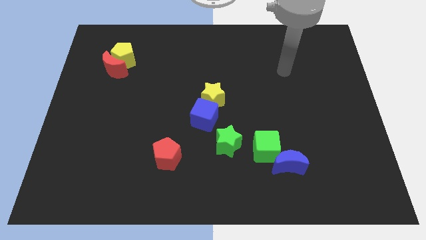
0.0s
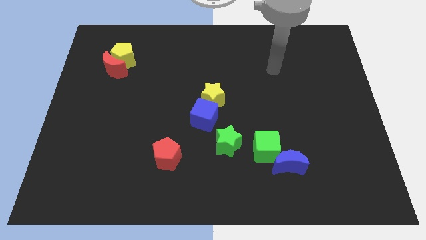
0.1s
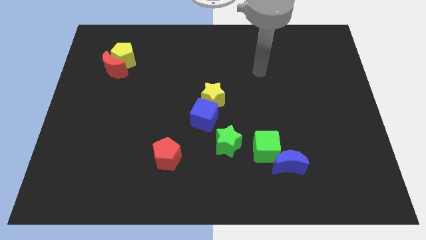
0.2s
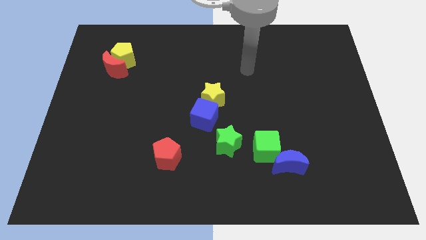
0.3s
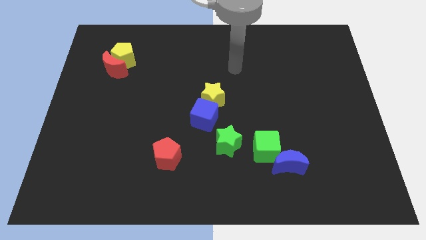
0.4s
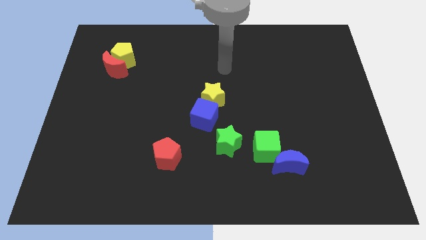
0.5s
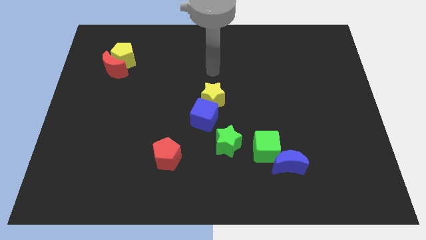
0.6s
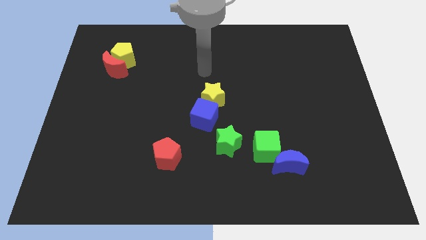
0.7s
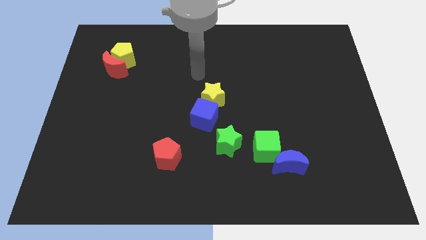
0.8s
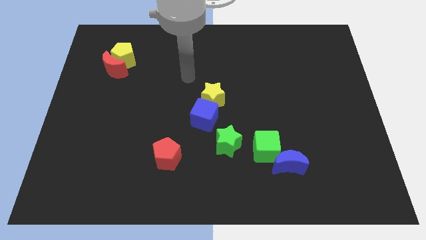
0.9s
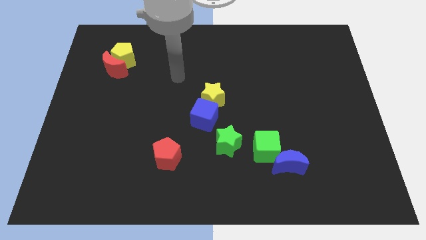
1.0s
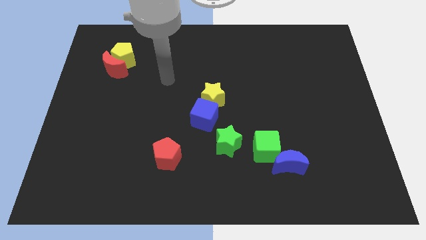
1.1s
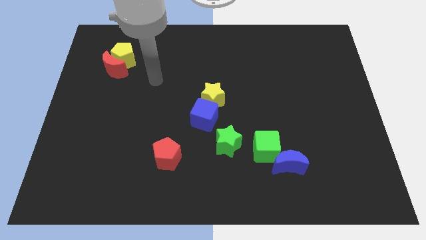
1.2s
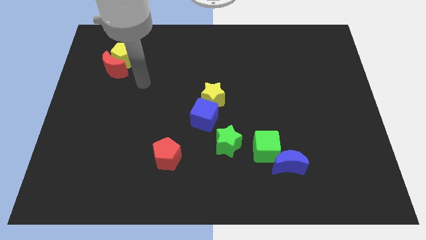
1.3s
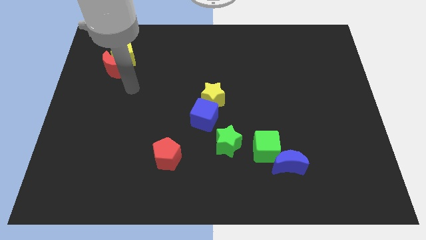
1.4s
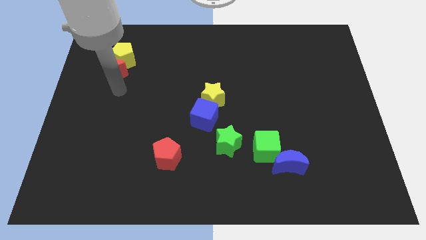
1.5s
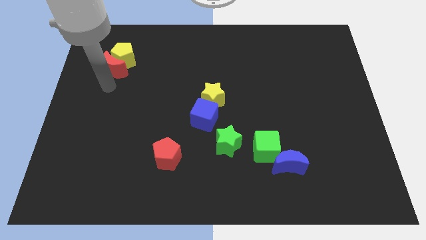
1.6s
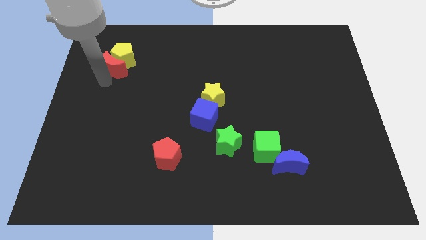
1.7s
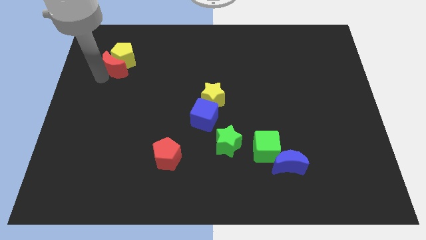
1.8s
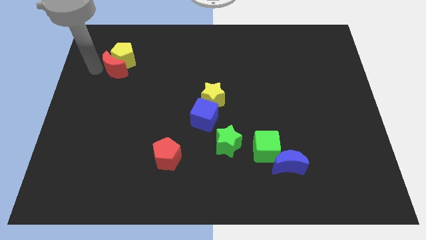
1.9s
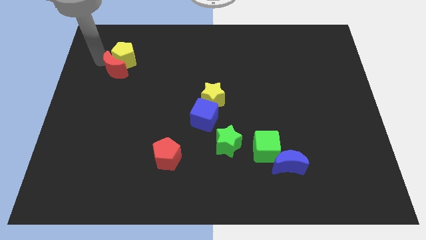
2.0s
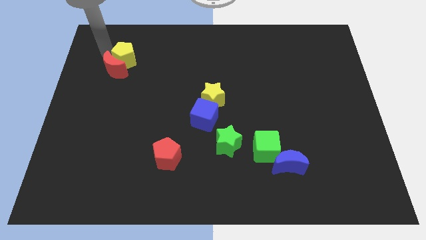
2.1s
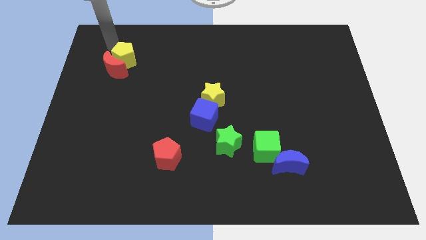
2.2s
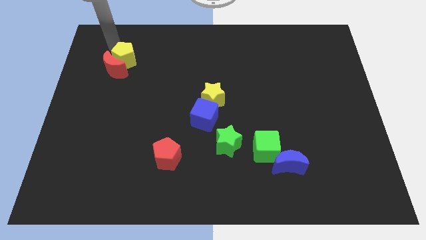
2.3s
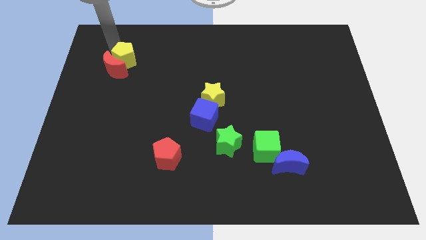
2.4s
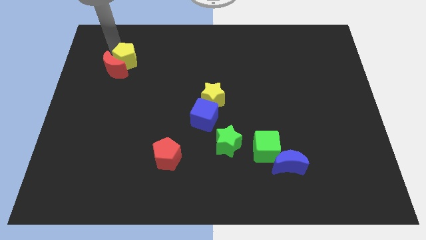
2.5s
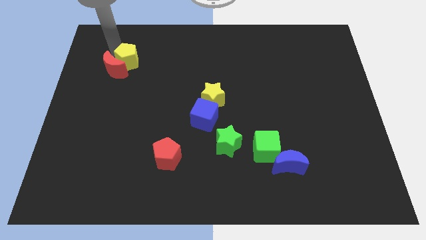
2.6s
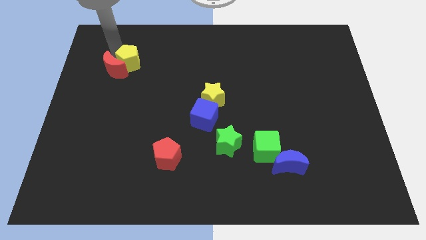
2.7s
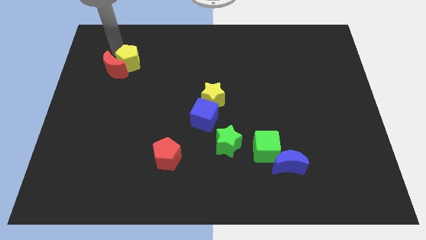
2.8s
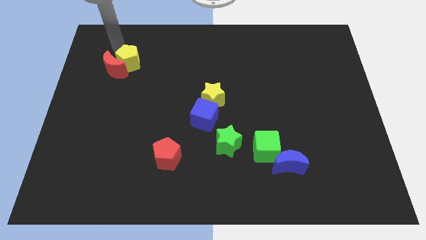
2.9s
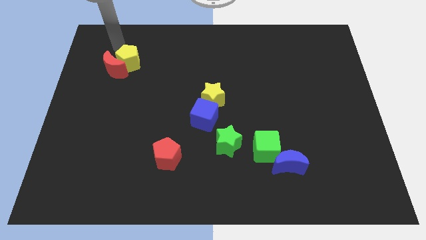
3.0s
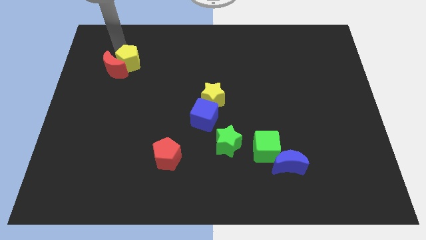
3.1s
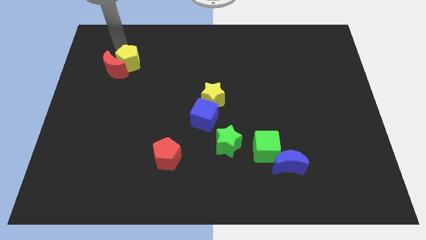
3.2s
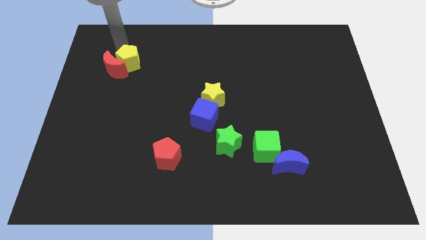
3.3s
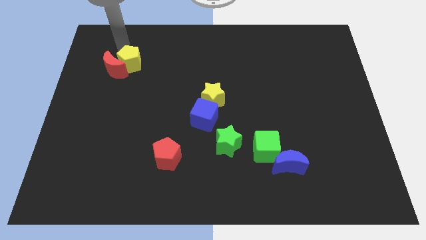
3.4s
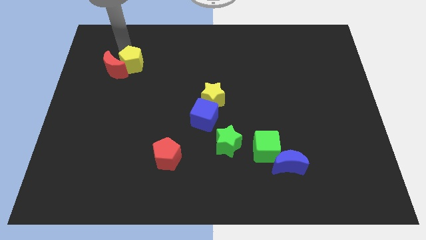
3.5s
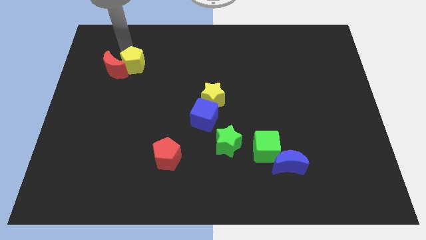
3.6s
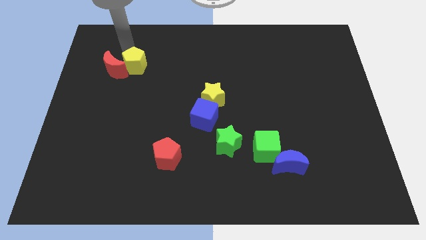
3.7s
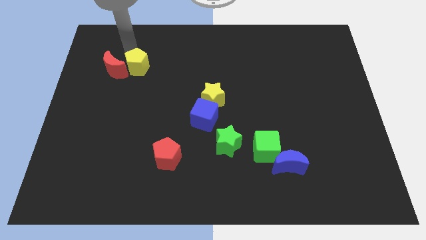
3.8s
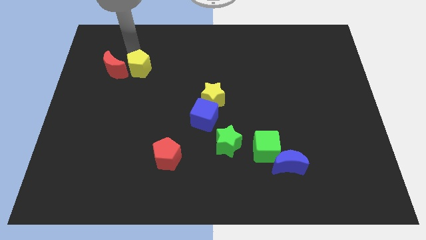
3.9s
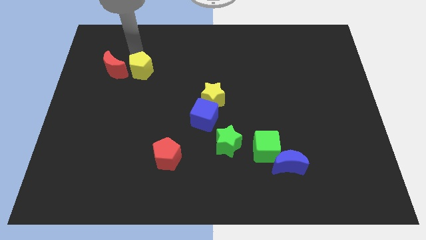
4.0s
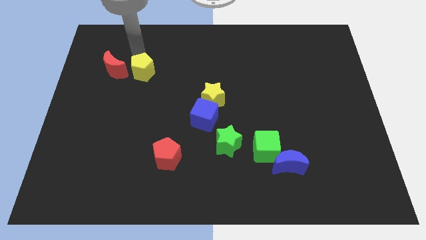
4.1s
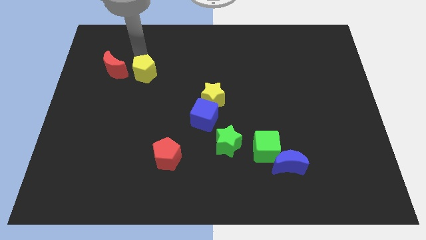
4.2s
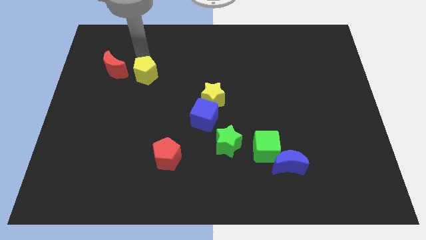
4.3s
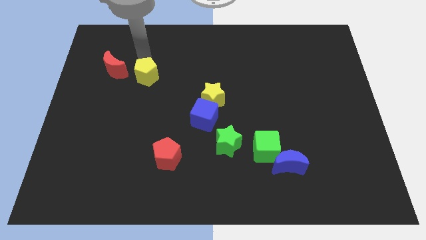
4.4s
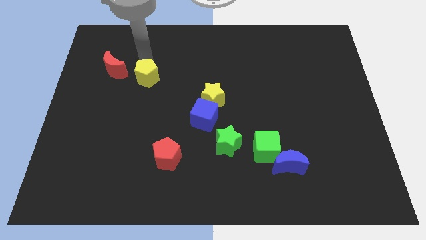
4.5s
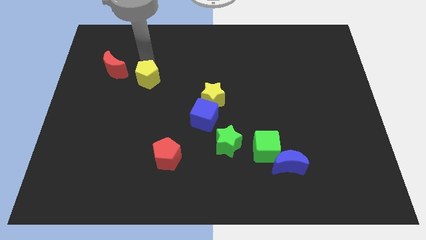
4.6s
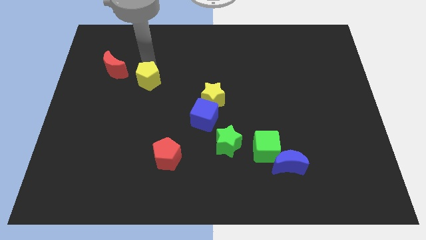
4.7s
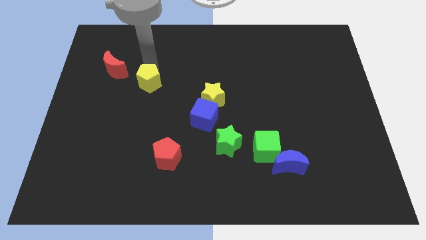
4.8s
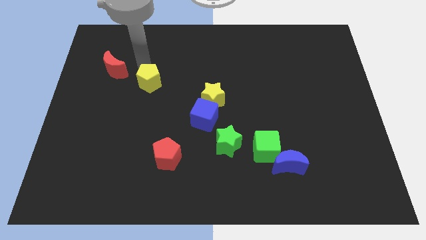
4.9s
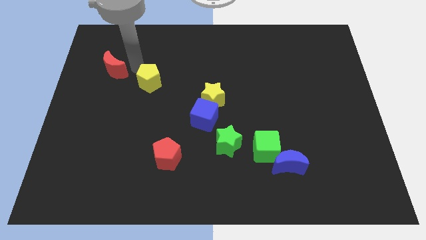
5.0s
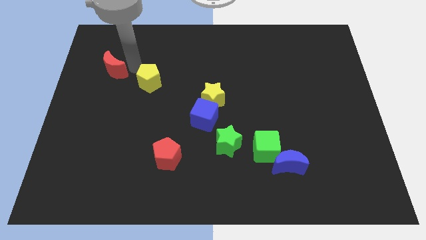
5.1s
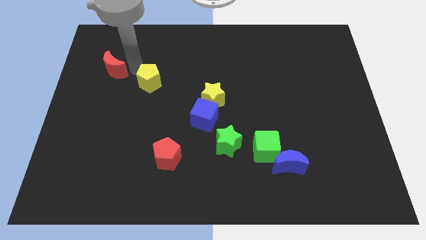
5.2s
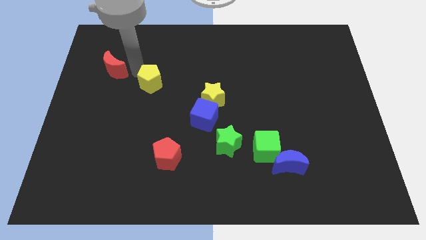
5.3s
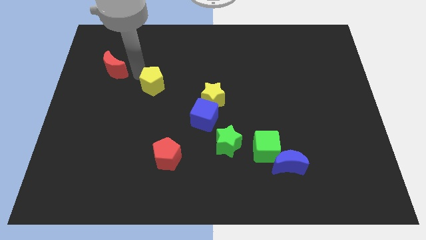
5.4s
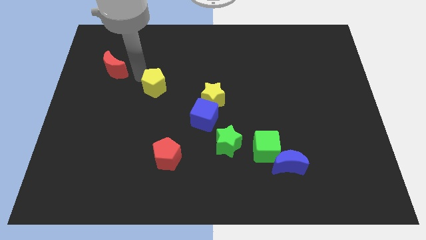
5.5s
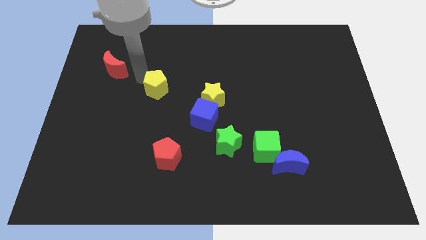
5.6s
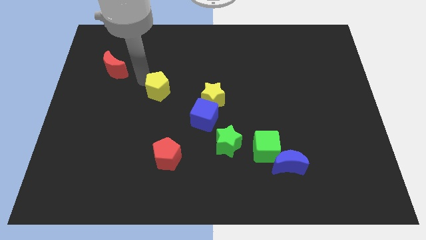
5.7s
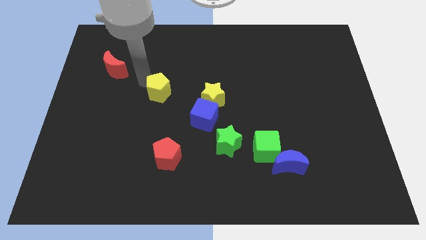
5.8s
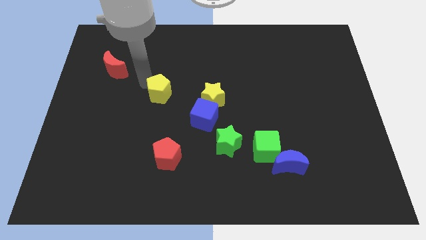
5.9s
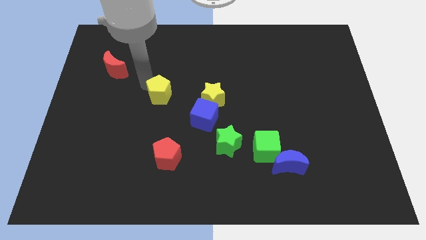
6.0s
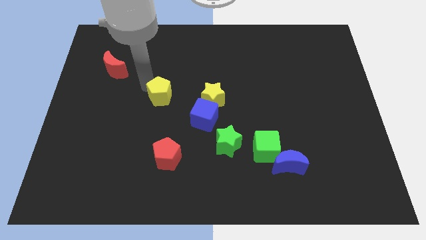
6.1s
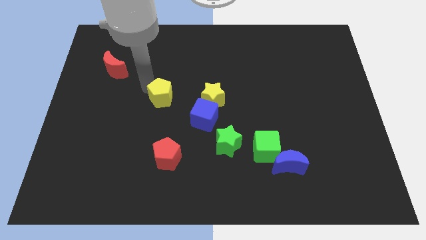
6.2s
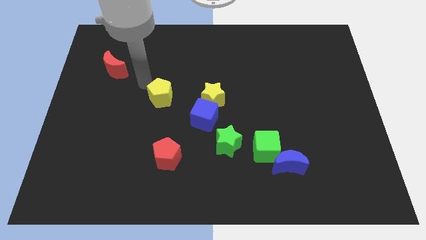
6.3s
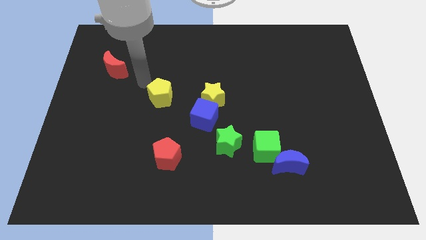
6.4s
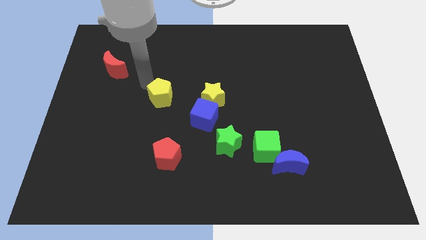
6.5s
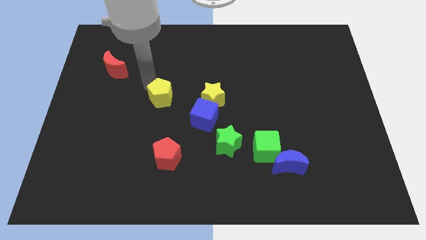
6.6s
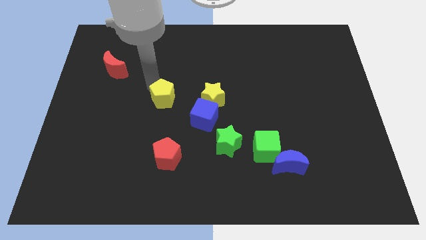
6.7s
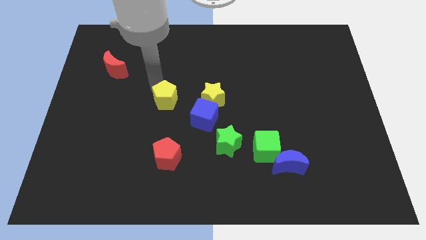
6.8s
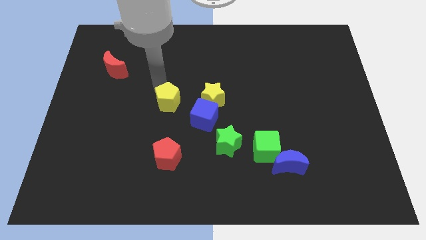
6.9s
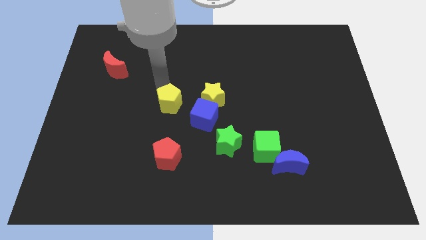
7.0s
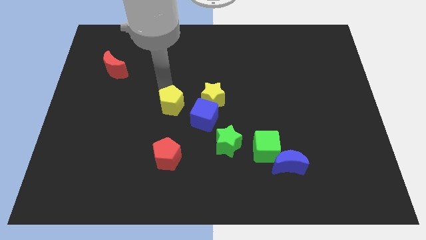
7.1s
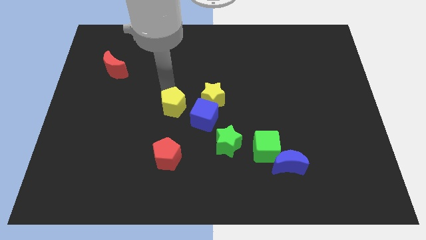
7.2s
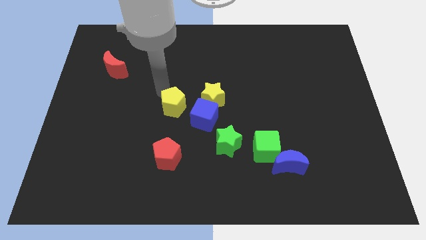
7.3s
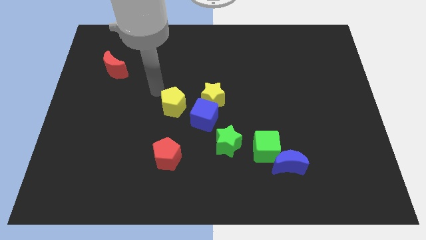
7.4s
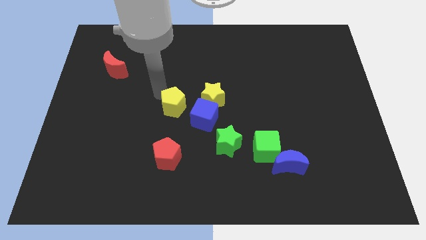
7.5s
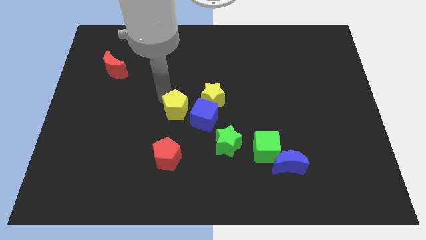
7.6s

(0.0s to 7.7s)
move the yellow pentagon to the bottom left side of the yellow star
